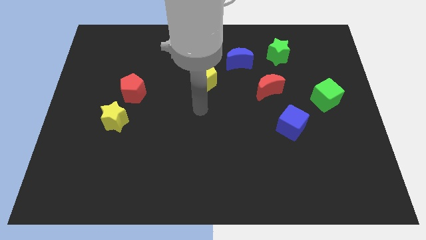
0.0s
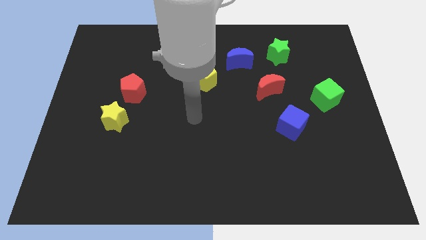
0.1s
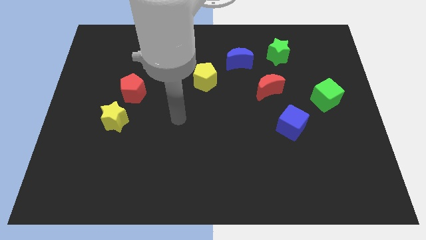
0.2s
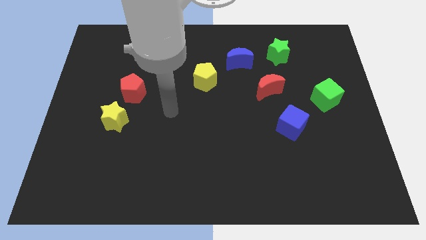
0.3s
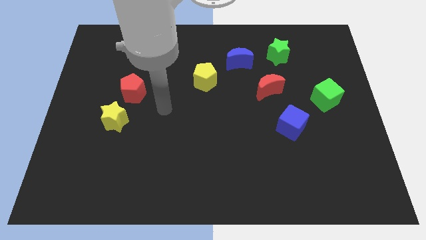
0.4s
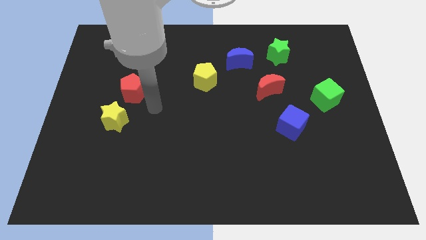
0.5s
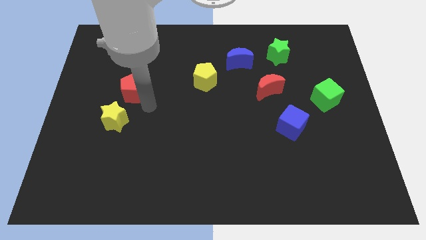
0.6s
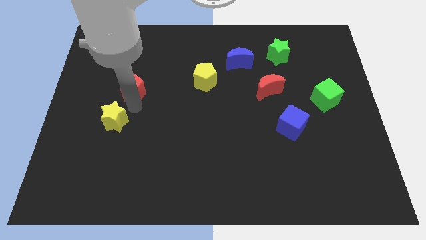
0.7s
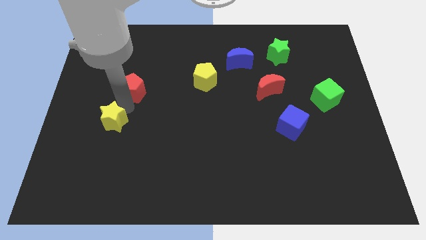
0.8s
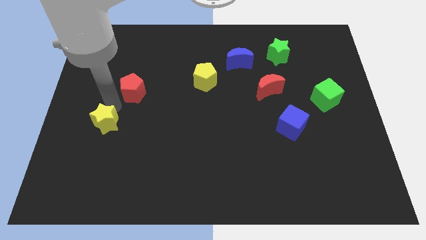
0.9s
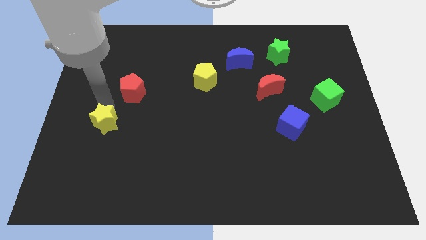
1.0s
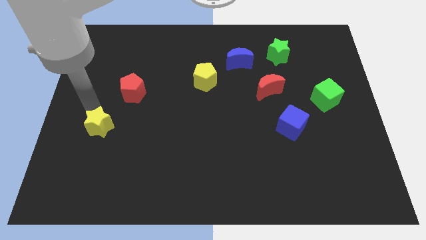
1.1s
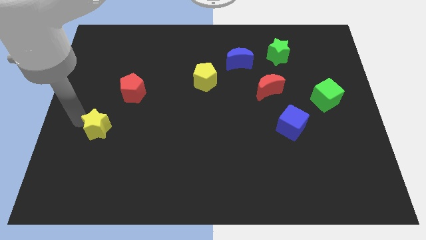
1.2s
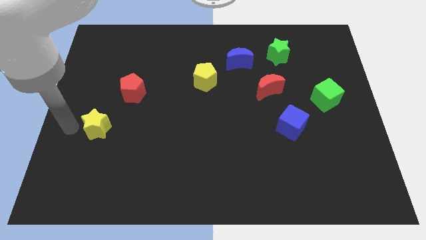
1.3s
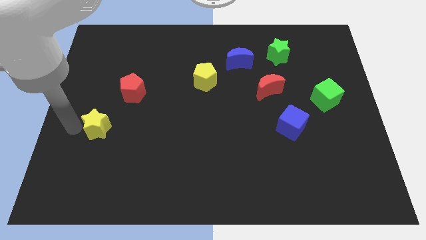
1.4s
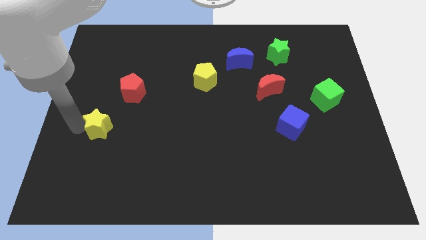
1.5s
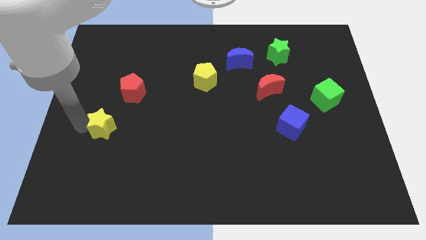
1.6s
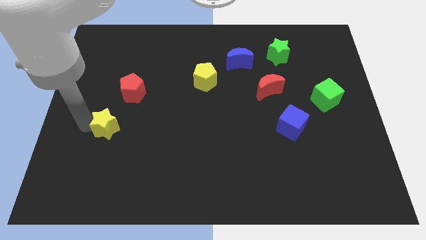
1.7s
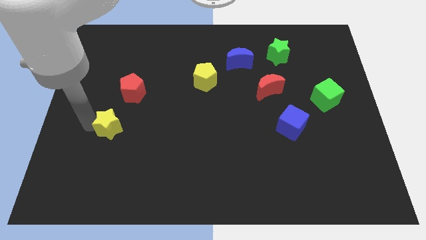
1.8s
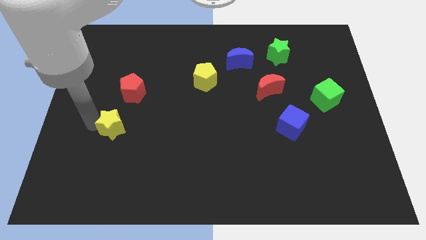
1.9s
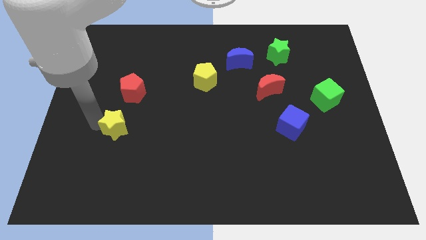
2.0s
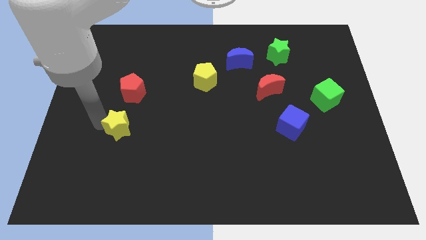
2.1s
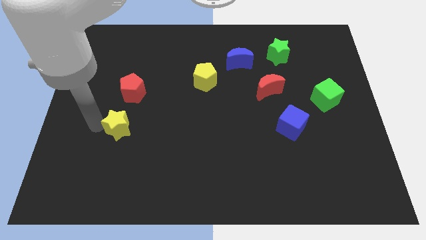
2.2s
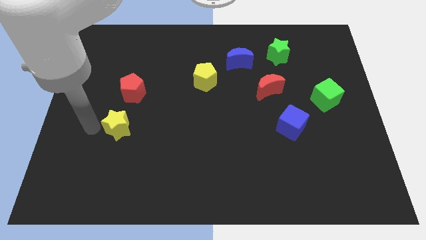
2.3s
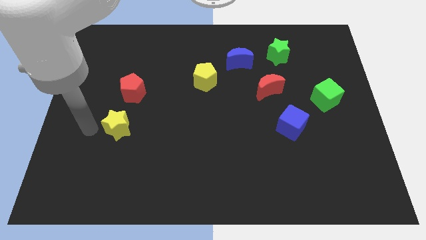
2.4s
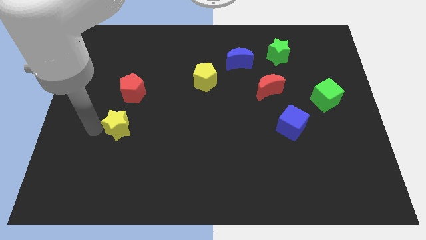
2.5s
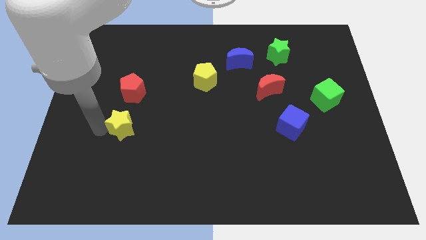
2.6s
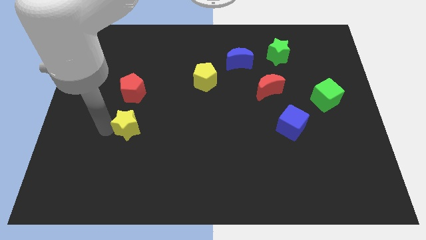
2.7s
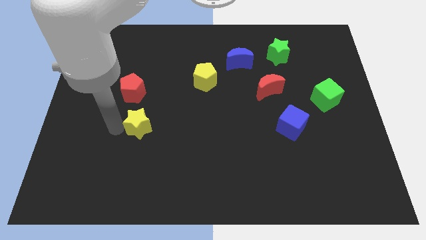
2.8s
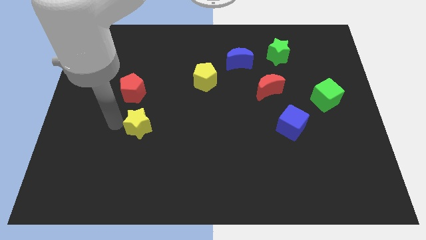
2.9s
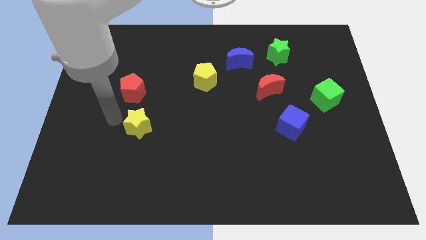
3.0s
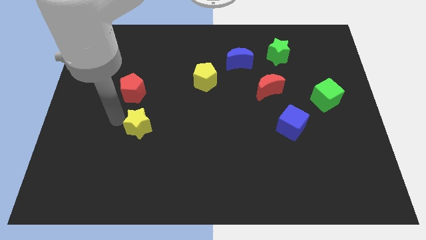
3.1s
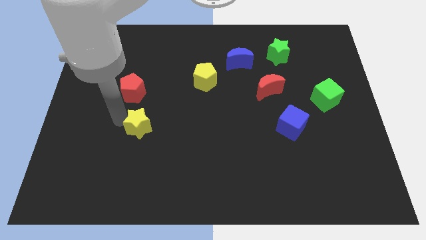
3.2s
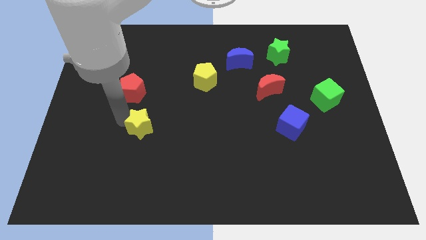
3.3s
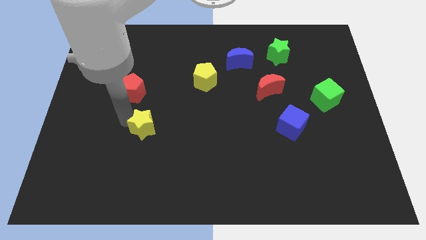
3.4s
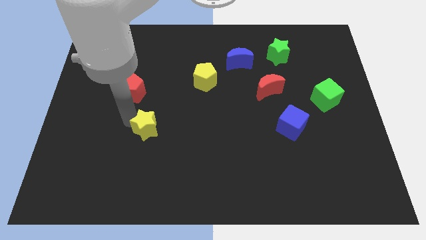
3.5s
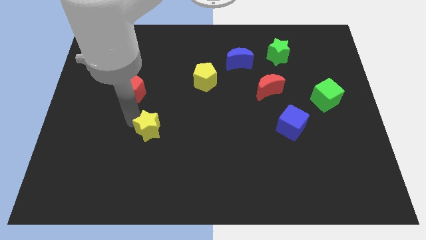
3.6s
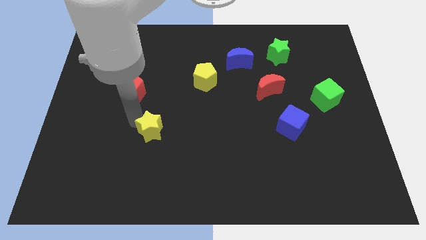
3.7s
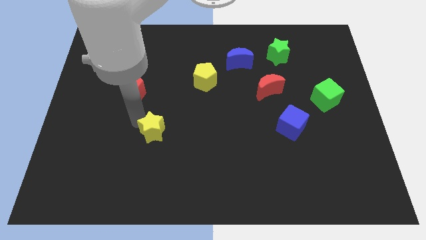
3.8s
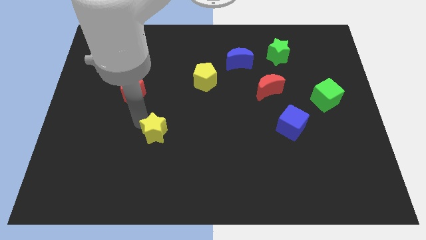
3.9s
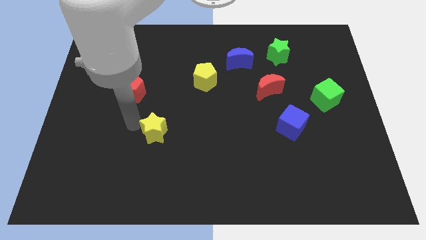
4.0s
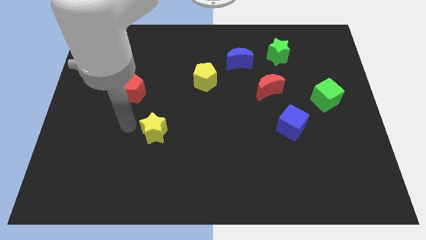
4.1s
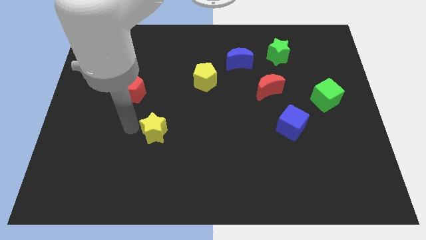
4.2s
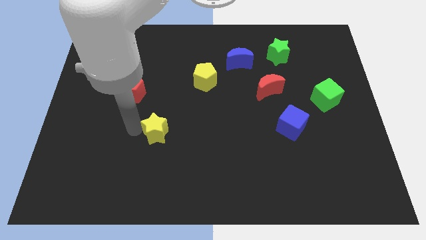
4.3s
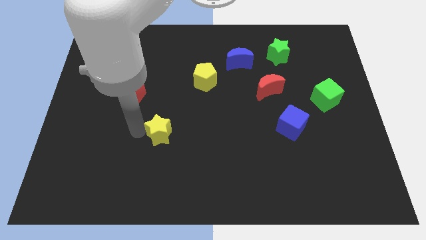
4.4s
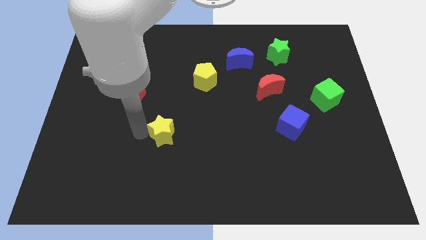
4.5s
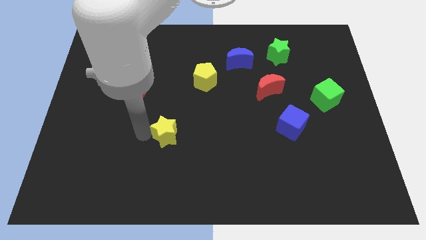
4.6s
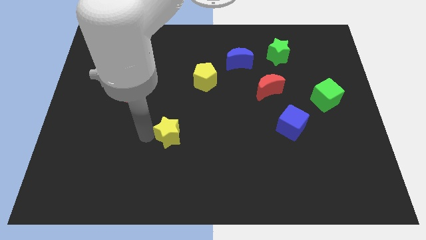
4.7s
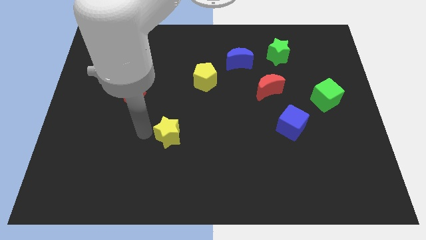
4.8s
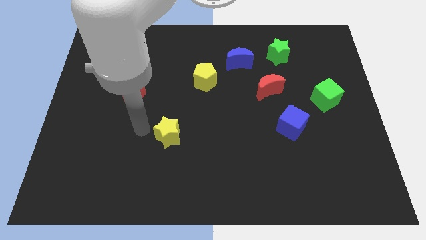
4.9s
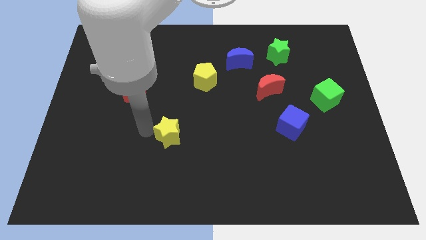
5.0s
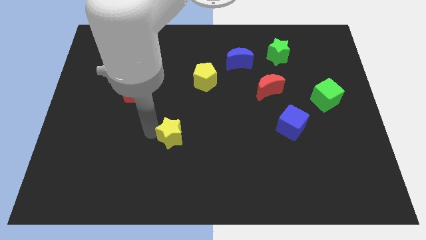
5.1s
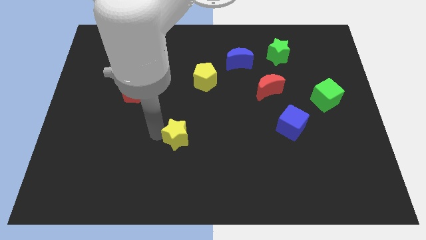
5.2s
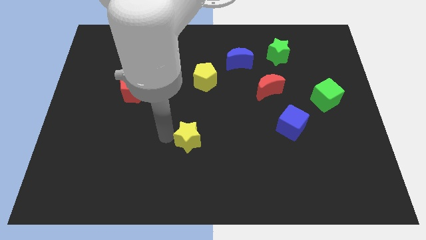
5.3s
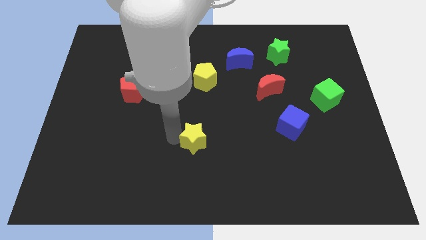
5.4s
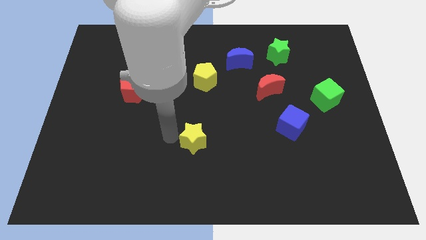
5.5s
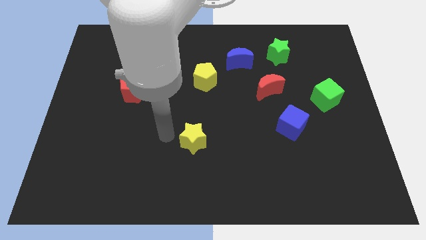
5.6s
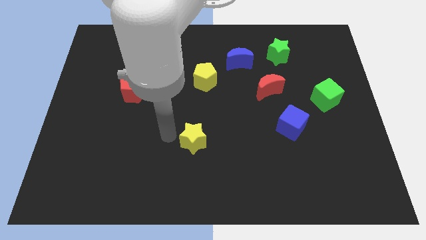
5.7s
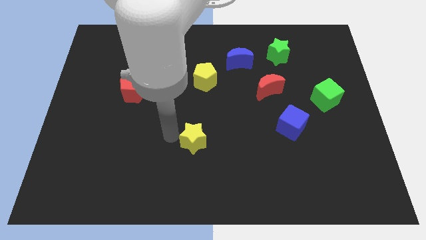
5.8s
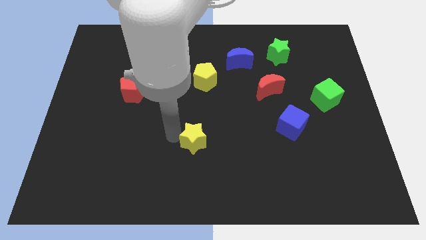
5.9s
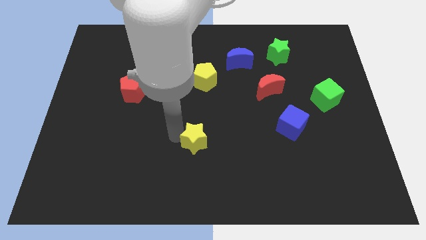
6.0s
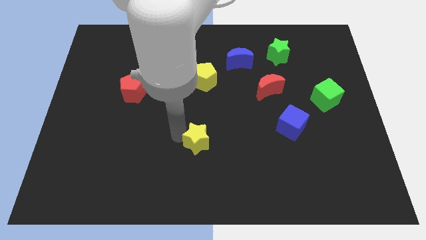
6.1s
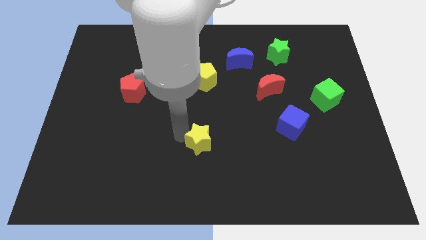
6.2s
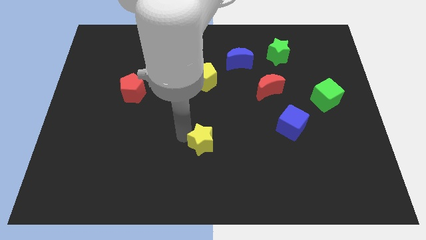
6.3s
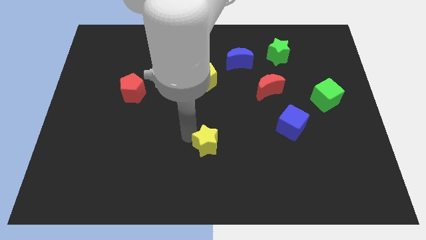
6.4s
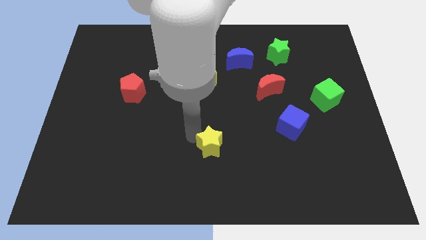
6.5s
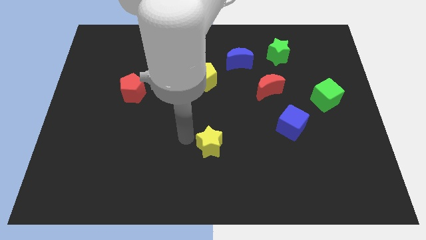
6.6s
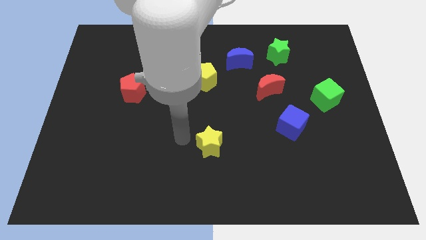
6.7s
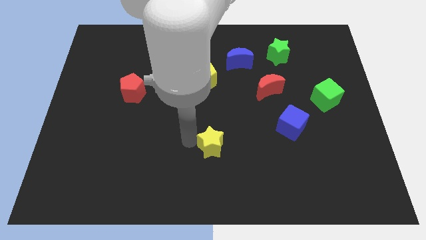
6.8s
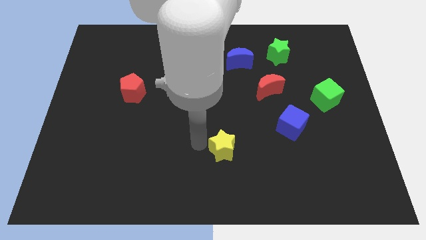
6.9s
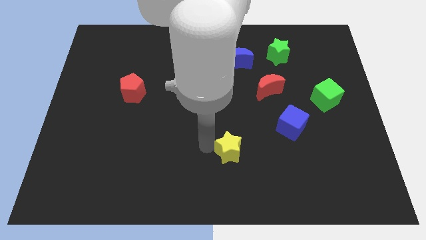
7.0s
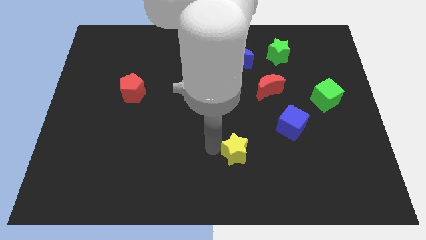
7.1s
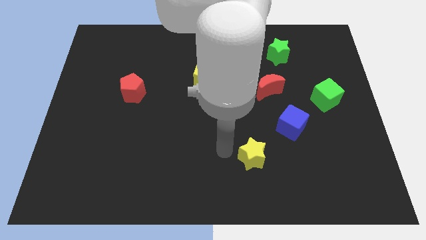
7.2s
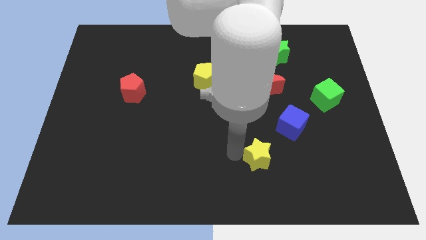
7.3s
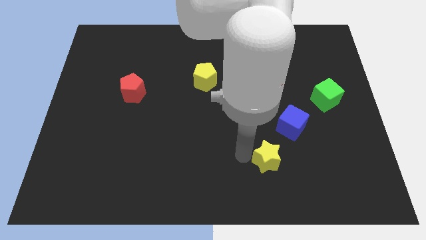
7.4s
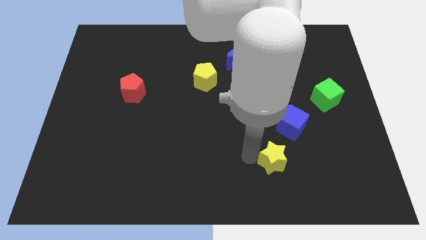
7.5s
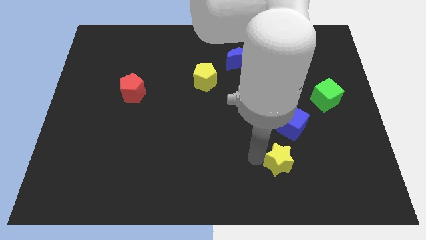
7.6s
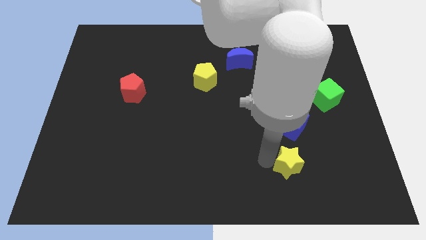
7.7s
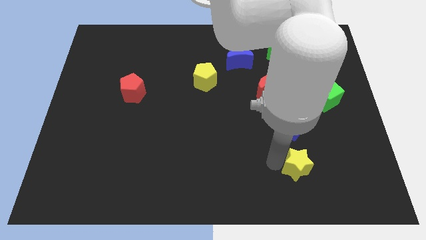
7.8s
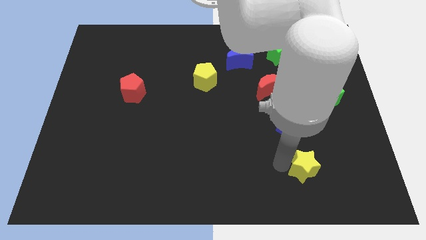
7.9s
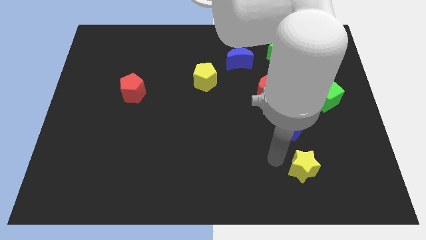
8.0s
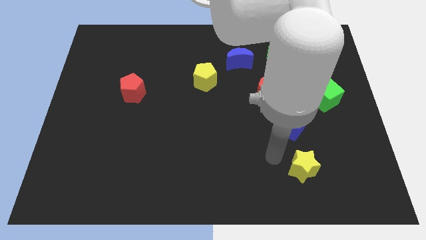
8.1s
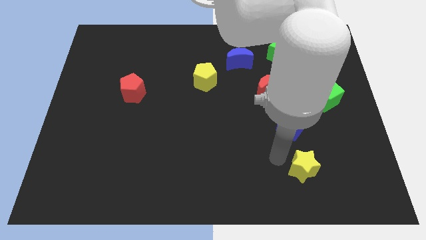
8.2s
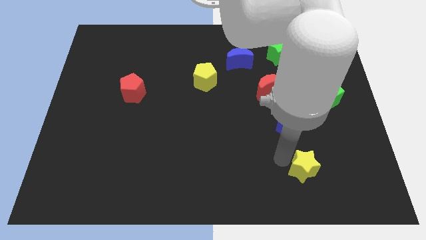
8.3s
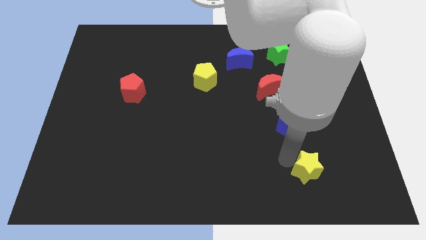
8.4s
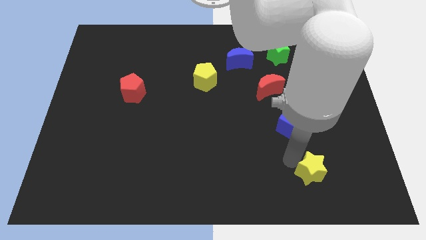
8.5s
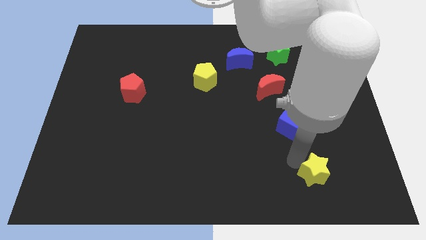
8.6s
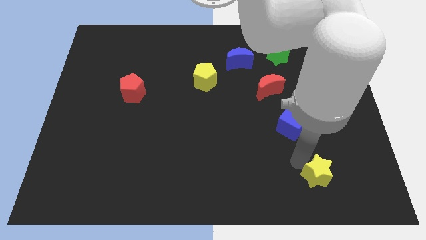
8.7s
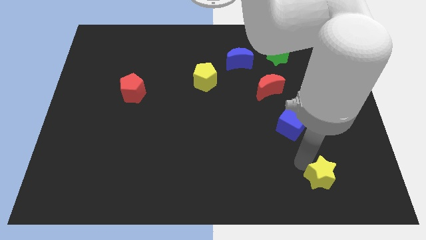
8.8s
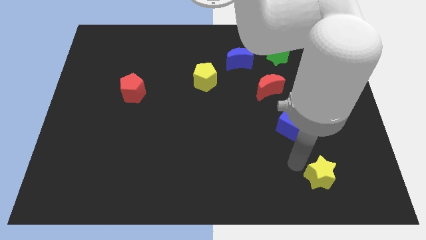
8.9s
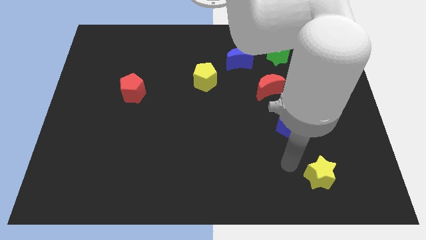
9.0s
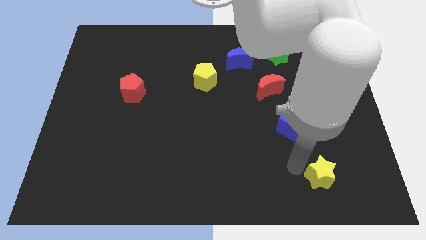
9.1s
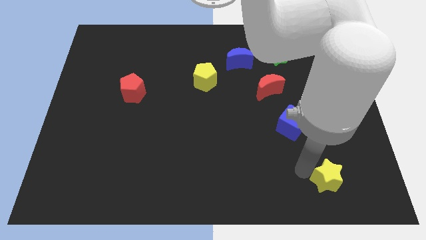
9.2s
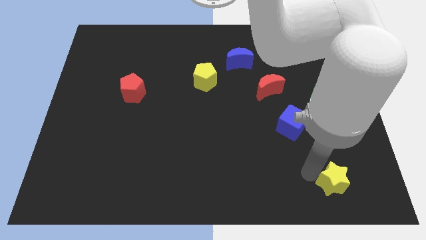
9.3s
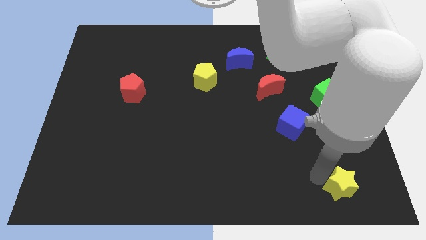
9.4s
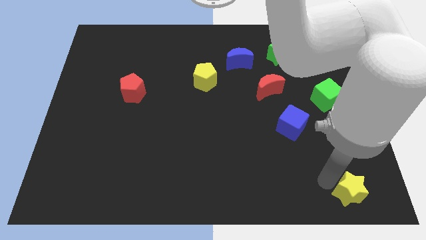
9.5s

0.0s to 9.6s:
slide the yellow star to the lower right corner
